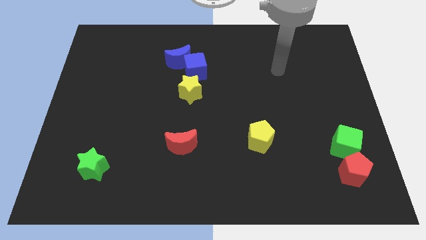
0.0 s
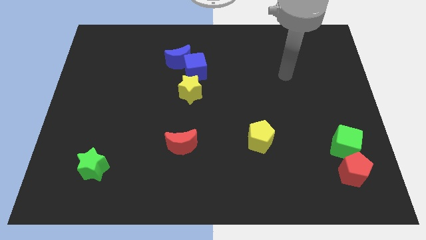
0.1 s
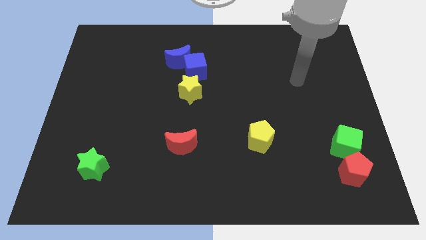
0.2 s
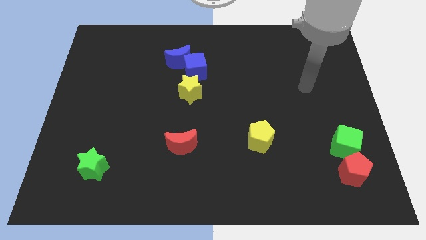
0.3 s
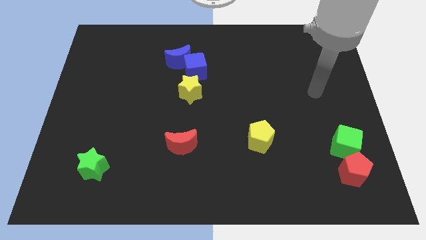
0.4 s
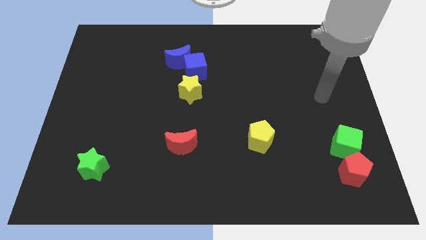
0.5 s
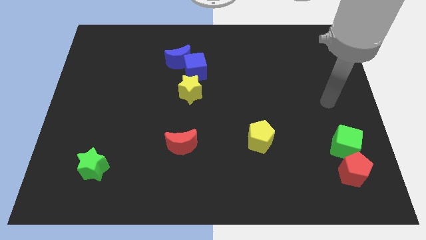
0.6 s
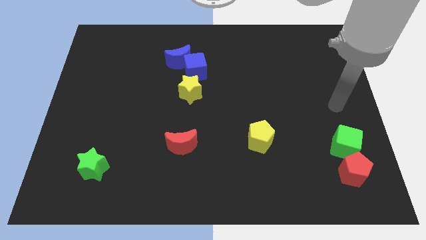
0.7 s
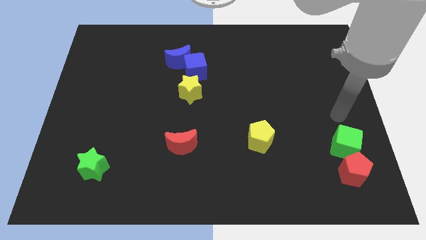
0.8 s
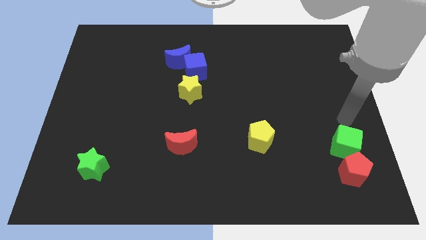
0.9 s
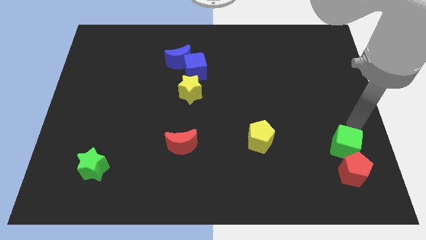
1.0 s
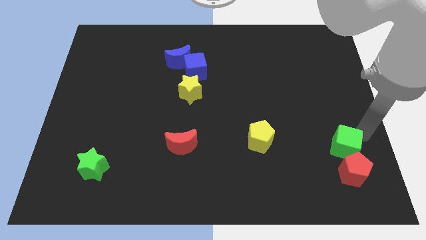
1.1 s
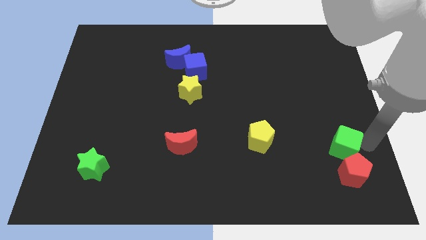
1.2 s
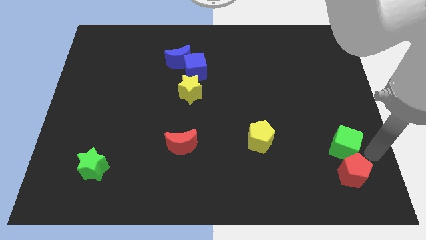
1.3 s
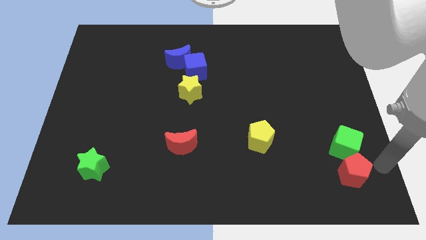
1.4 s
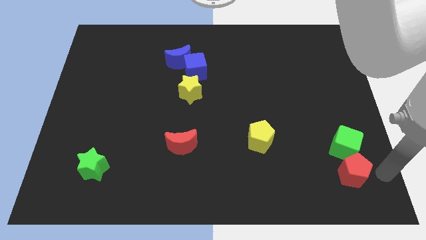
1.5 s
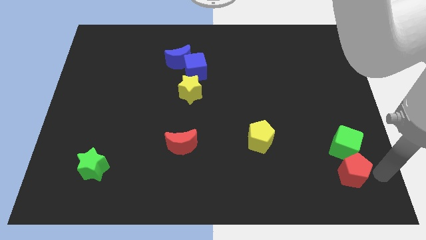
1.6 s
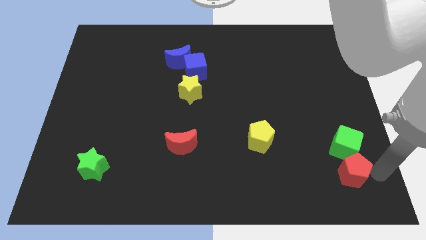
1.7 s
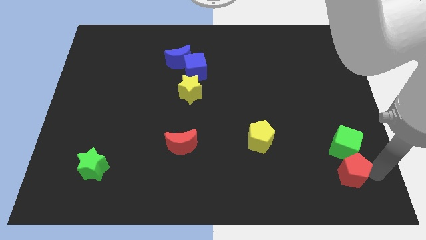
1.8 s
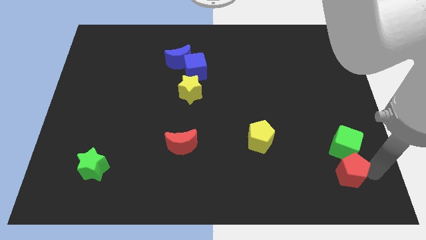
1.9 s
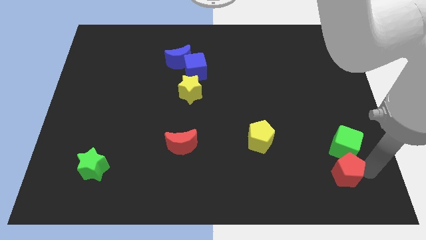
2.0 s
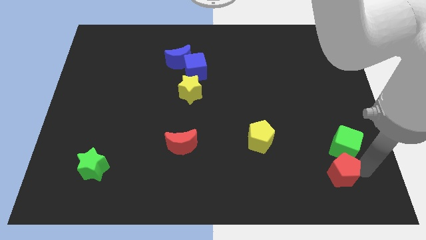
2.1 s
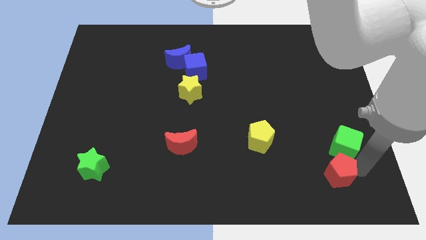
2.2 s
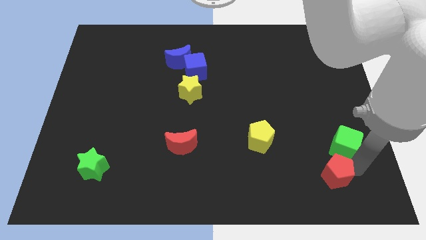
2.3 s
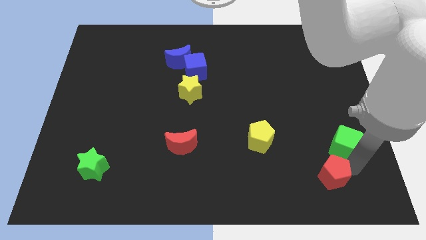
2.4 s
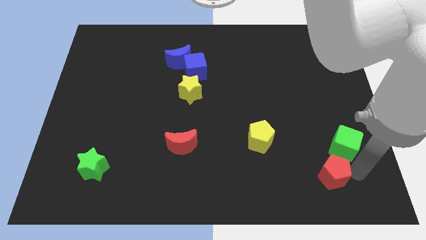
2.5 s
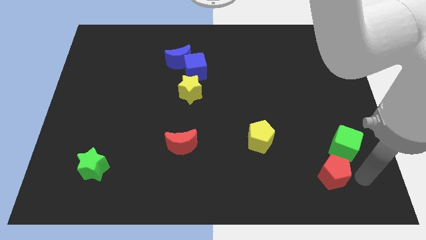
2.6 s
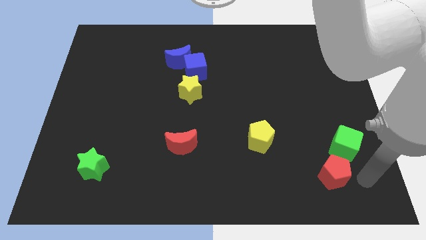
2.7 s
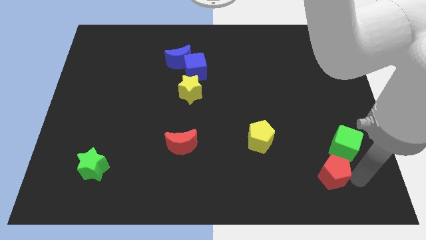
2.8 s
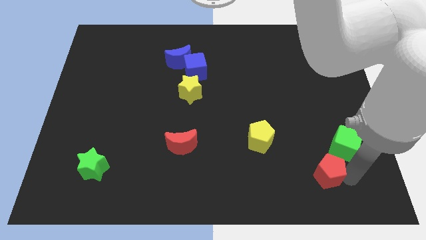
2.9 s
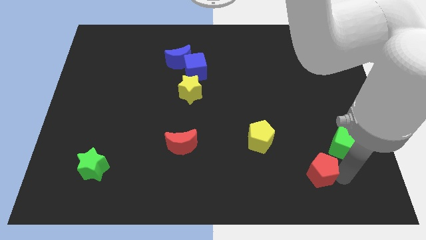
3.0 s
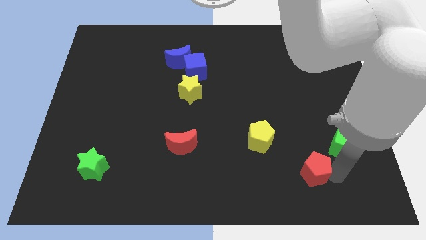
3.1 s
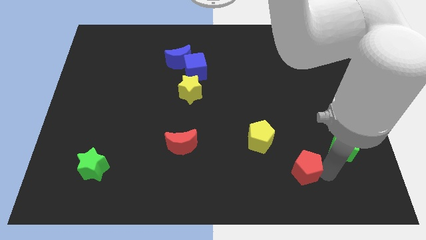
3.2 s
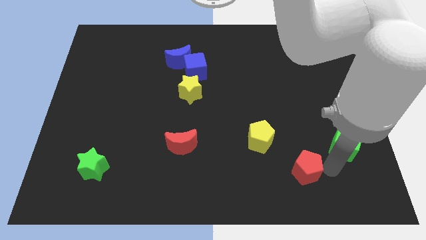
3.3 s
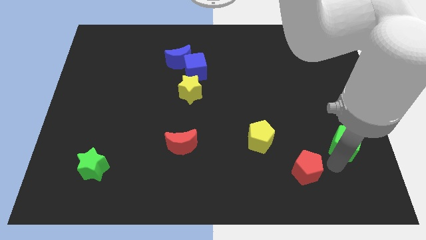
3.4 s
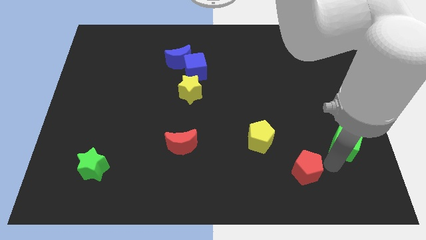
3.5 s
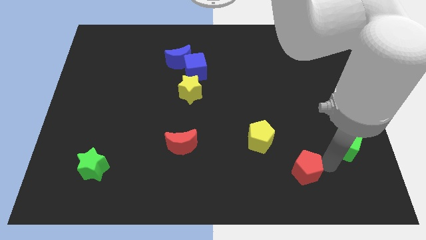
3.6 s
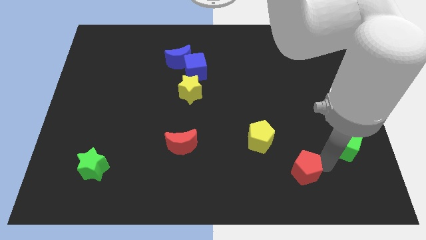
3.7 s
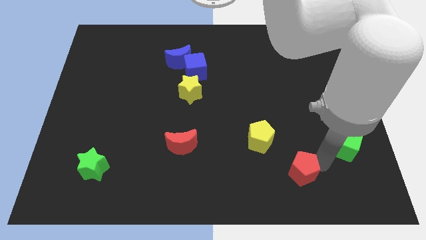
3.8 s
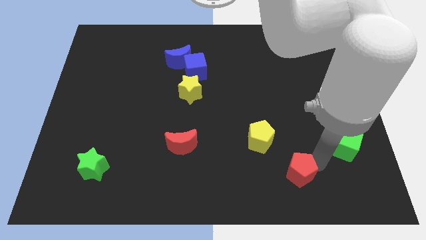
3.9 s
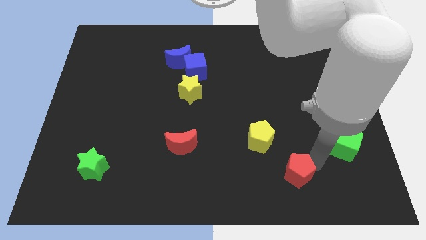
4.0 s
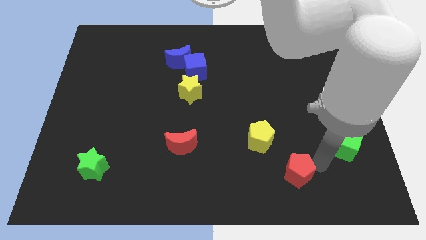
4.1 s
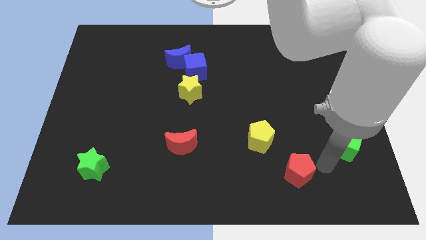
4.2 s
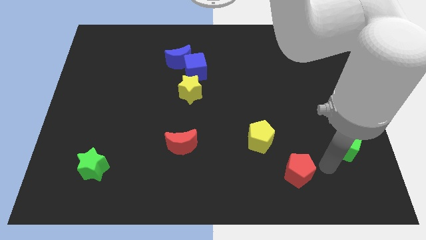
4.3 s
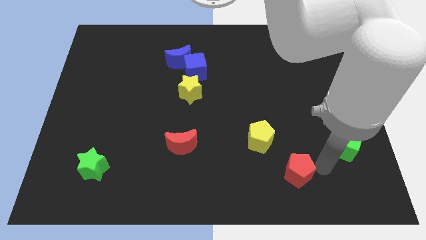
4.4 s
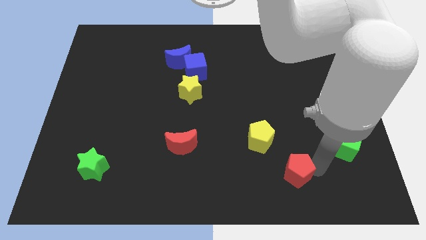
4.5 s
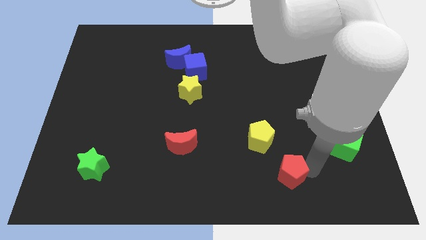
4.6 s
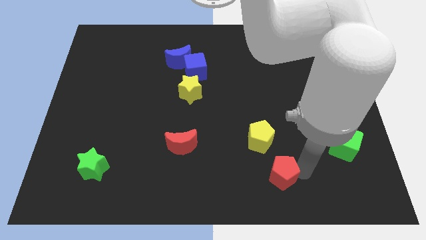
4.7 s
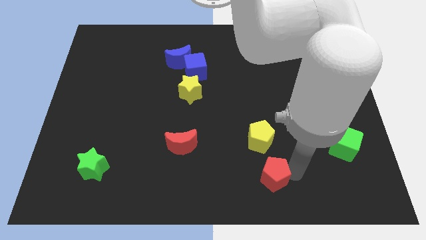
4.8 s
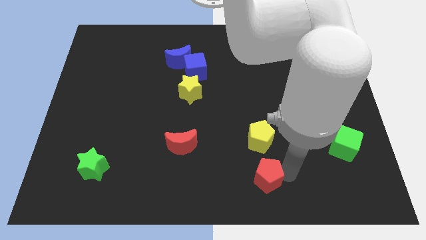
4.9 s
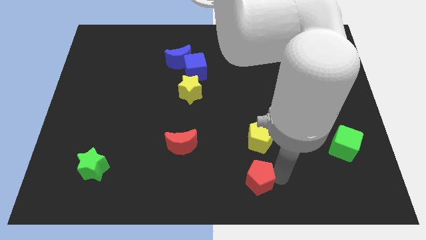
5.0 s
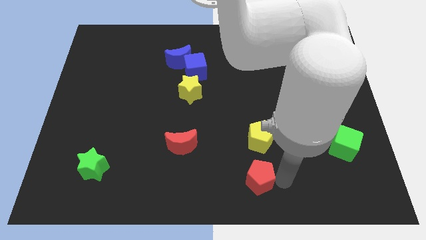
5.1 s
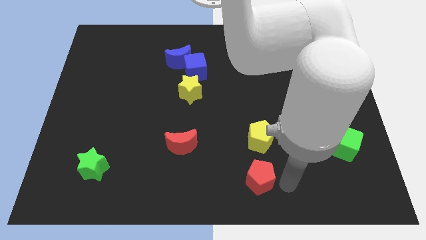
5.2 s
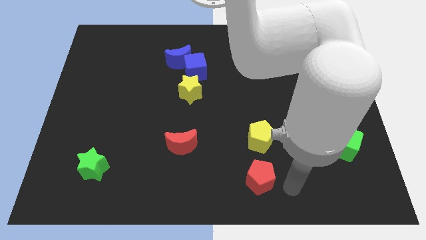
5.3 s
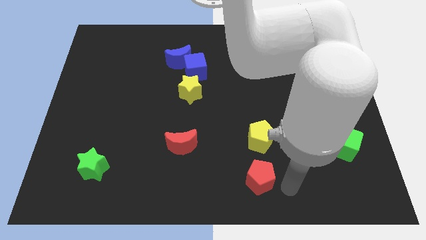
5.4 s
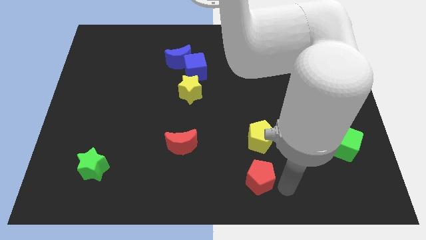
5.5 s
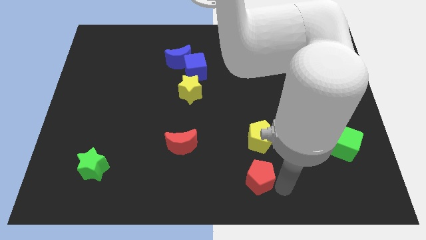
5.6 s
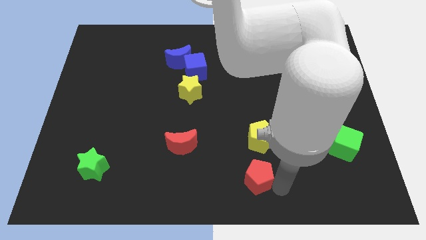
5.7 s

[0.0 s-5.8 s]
slide the red pentagon left

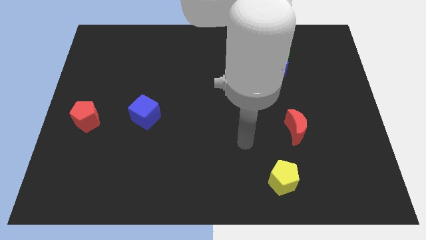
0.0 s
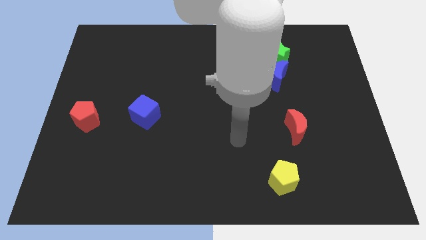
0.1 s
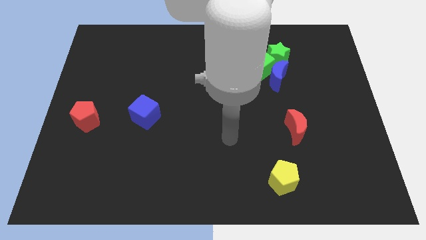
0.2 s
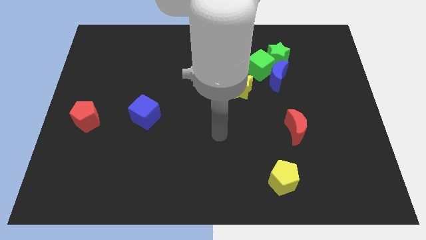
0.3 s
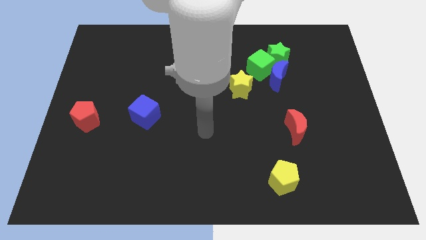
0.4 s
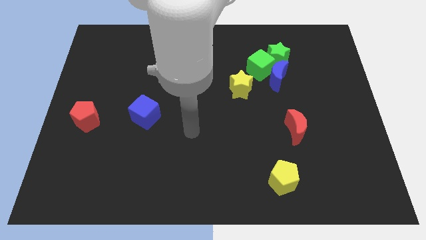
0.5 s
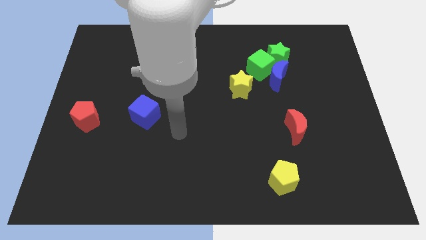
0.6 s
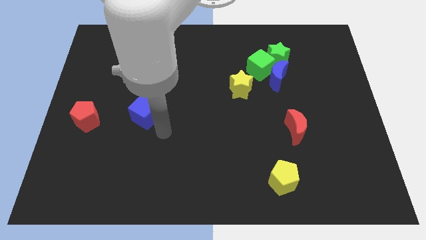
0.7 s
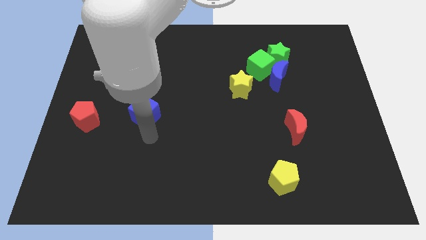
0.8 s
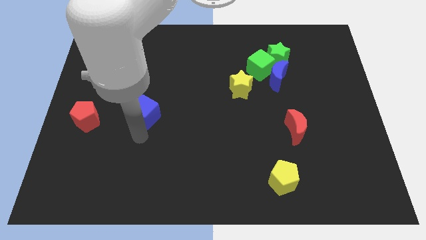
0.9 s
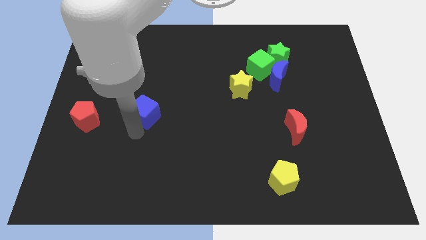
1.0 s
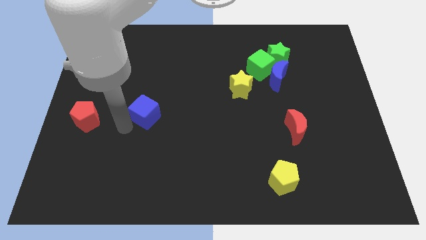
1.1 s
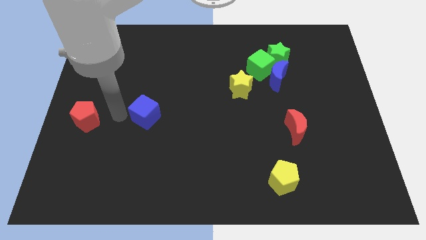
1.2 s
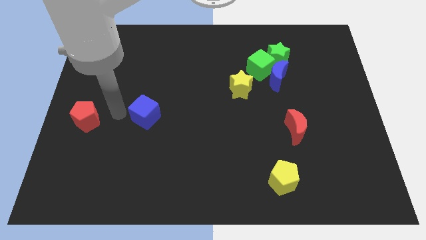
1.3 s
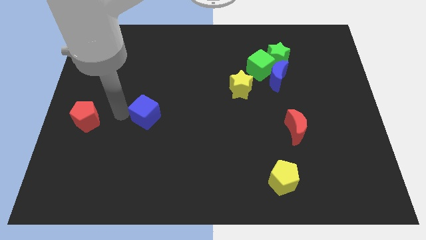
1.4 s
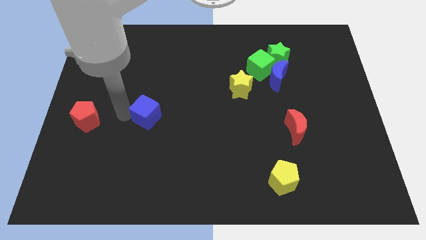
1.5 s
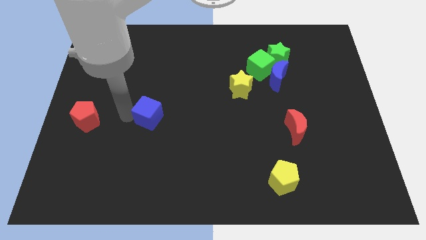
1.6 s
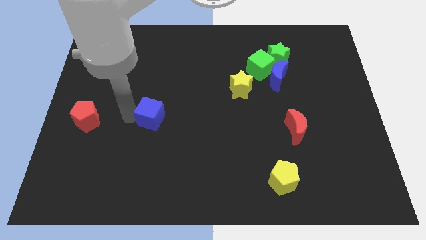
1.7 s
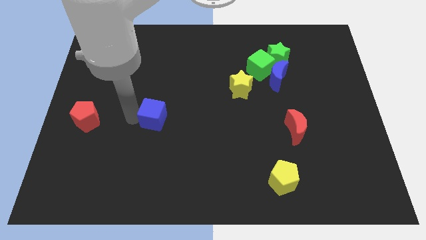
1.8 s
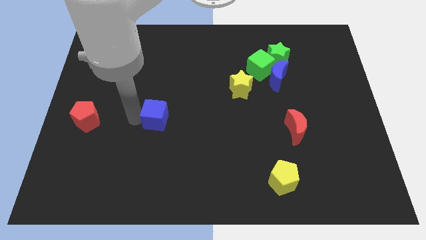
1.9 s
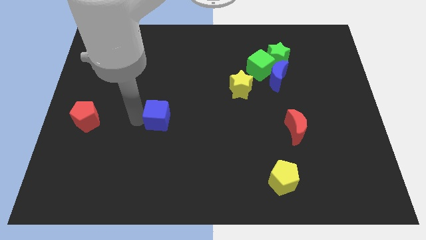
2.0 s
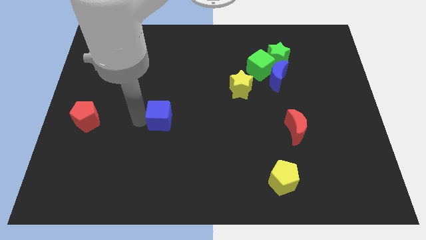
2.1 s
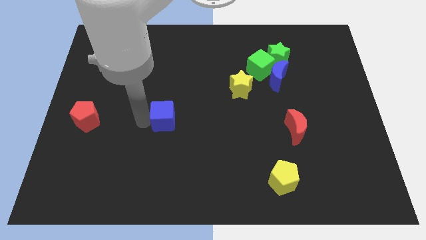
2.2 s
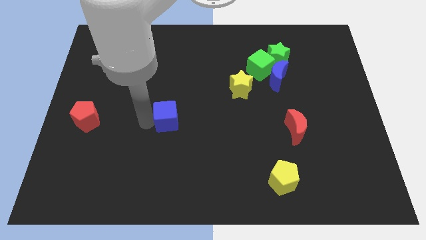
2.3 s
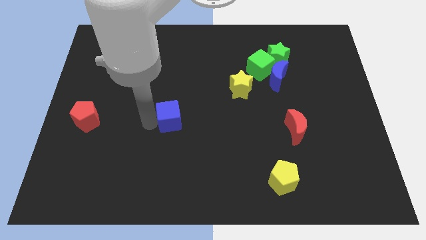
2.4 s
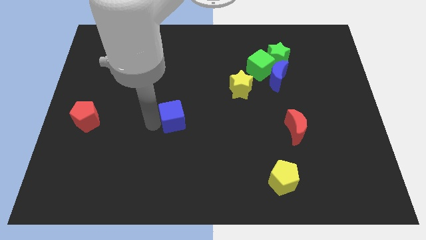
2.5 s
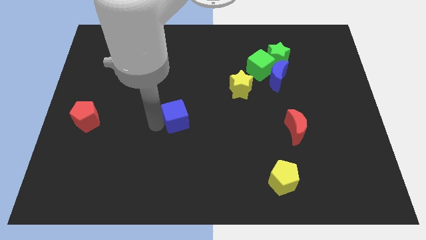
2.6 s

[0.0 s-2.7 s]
slide the blue cube slightly to the right
